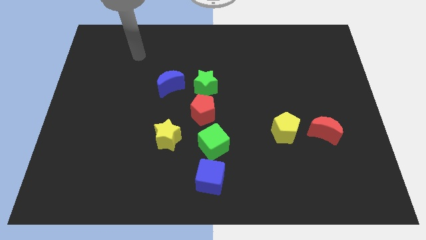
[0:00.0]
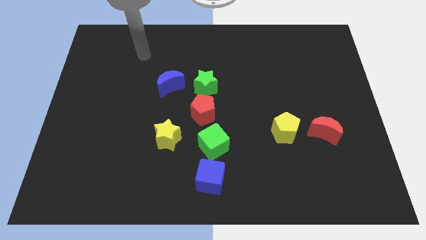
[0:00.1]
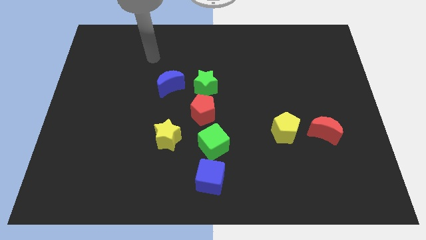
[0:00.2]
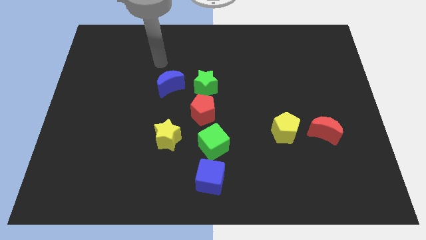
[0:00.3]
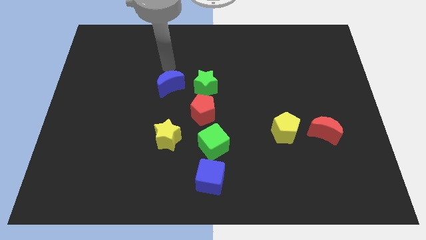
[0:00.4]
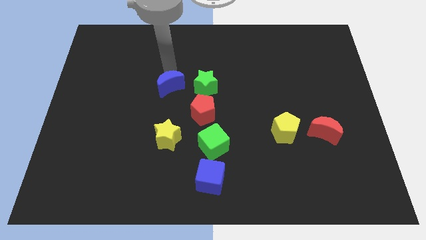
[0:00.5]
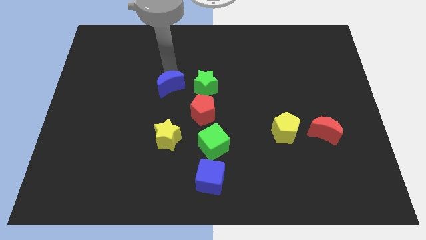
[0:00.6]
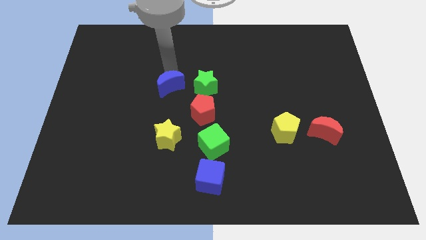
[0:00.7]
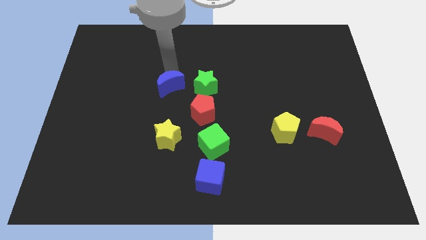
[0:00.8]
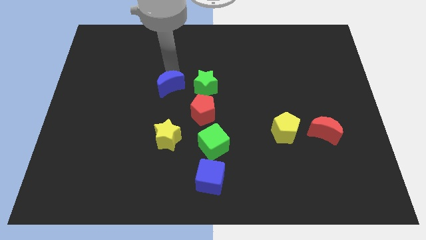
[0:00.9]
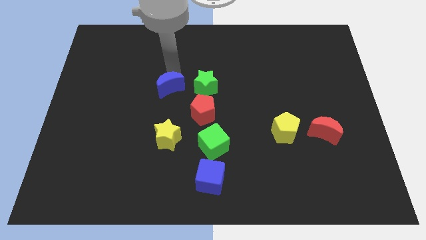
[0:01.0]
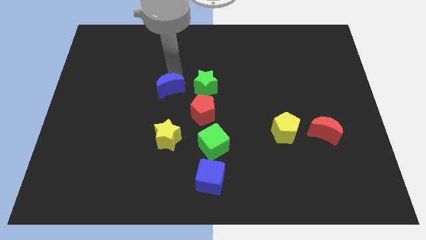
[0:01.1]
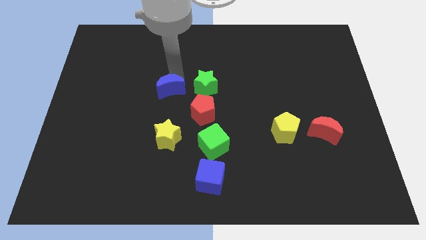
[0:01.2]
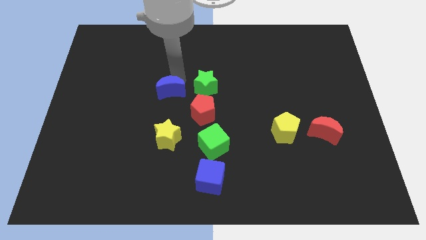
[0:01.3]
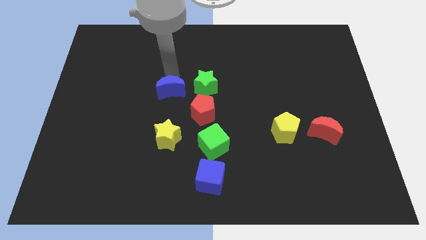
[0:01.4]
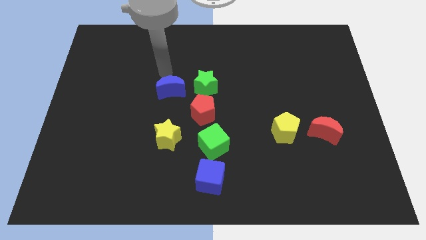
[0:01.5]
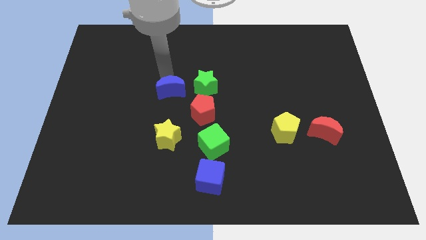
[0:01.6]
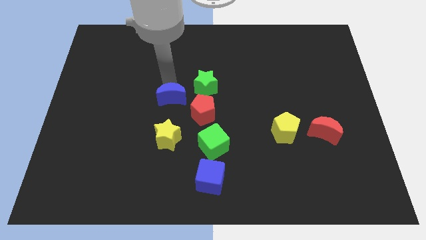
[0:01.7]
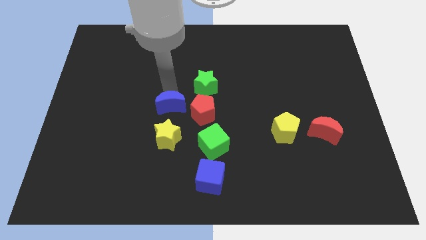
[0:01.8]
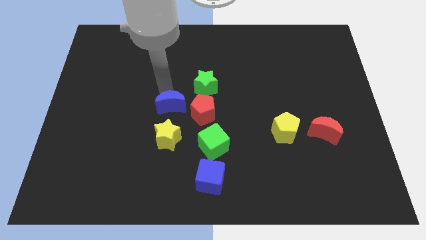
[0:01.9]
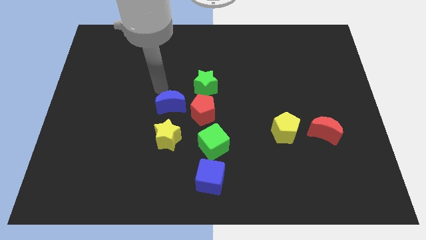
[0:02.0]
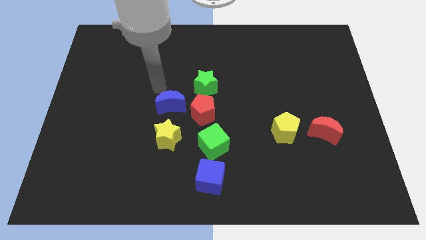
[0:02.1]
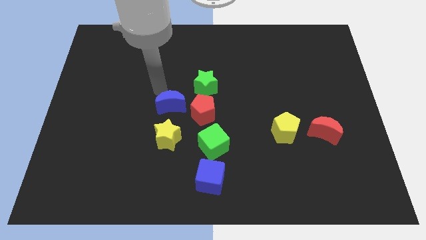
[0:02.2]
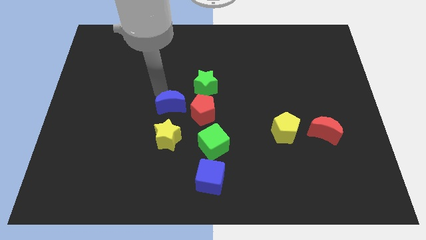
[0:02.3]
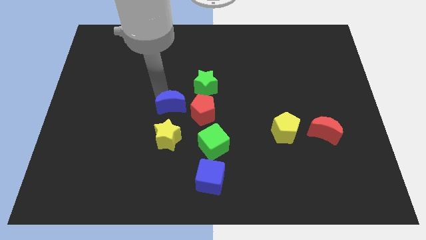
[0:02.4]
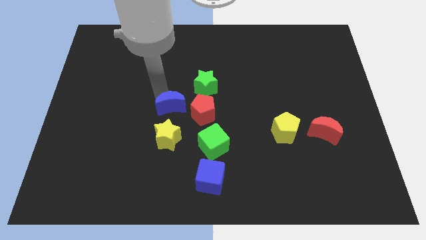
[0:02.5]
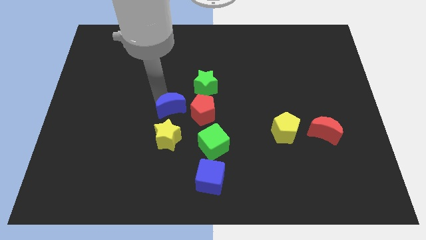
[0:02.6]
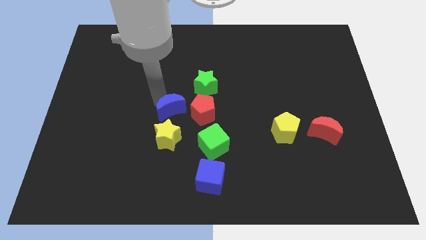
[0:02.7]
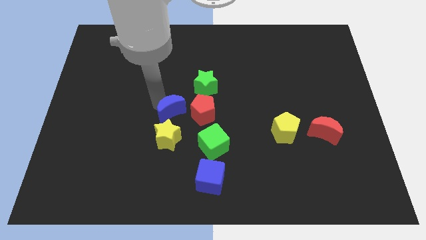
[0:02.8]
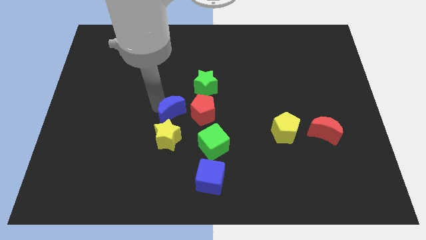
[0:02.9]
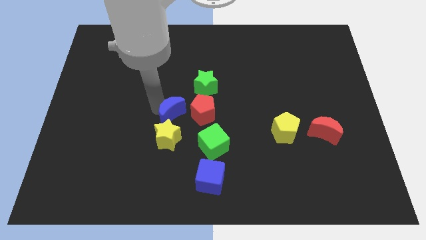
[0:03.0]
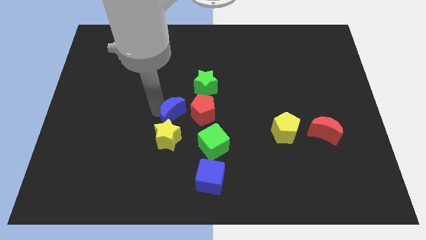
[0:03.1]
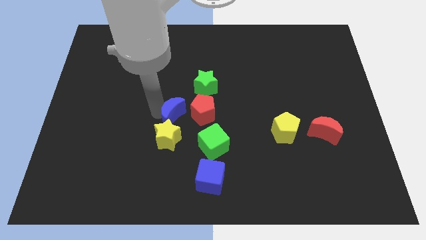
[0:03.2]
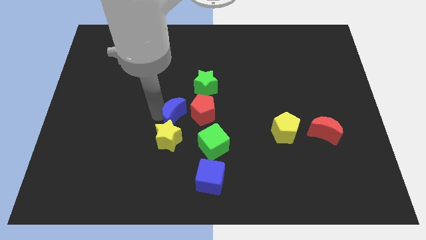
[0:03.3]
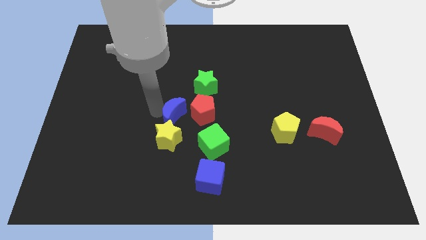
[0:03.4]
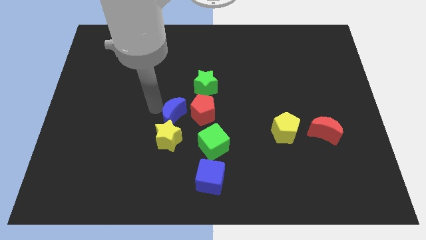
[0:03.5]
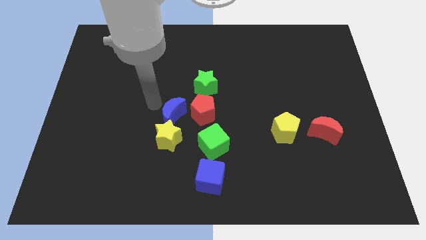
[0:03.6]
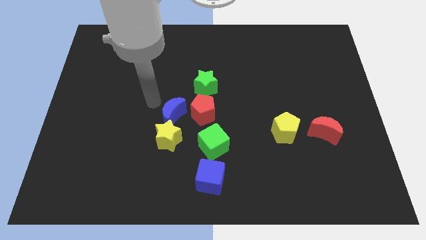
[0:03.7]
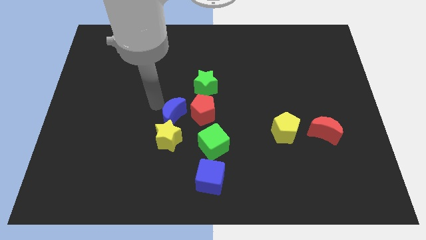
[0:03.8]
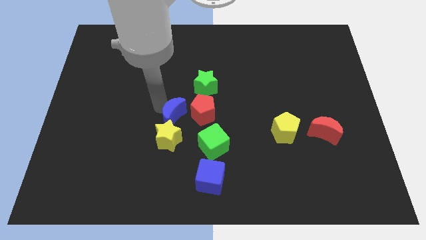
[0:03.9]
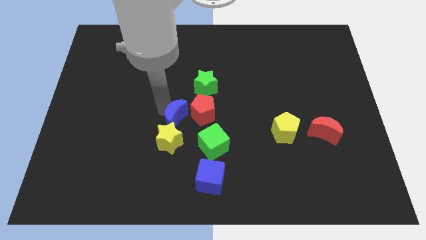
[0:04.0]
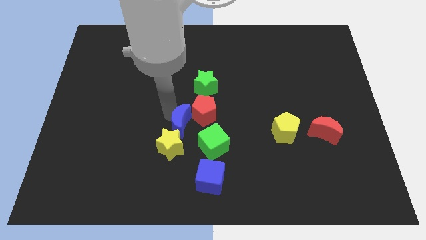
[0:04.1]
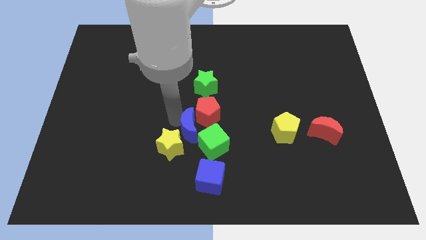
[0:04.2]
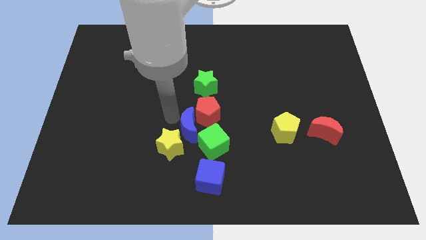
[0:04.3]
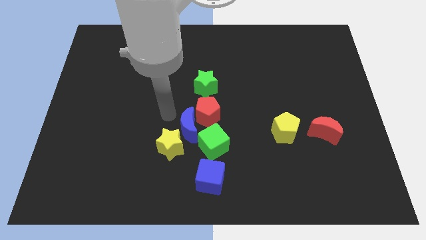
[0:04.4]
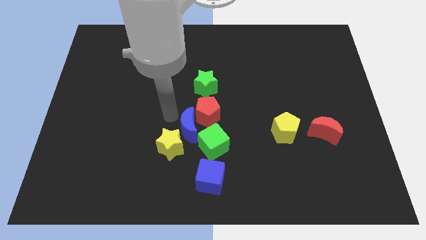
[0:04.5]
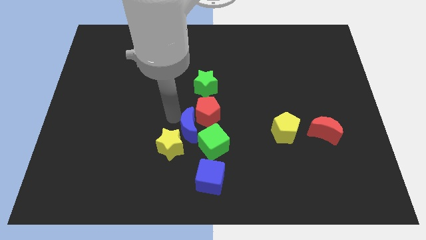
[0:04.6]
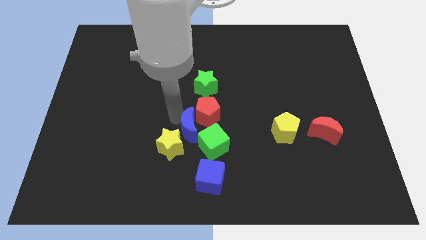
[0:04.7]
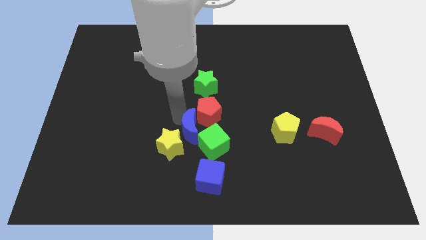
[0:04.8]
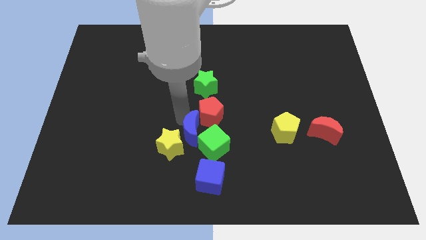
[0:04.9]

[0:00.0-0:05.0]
put the blue moon next to the green cube

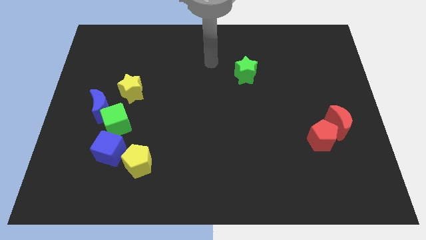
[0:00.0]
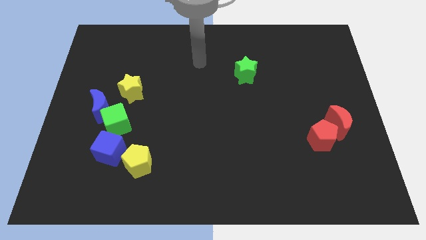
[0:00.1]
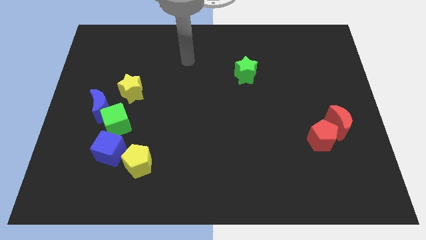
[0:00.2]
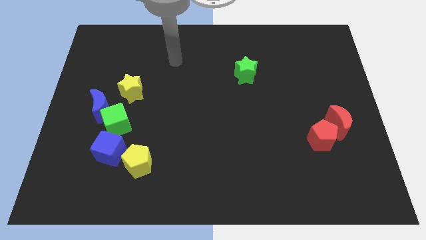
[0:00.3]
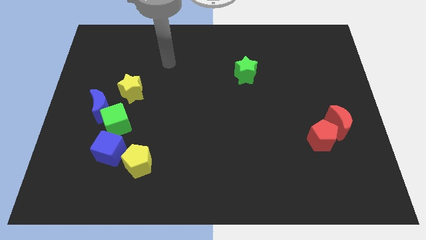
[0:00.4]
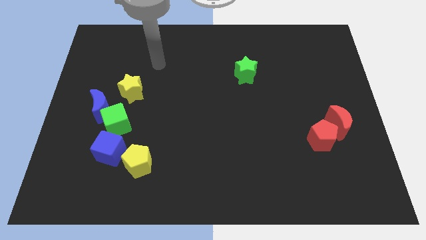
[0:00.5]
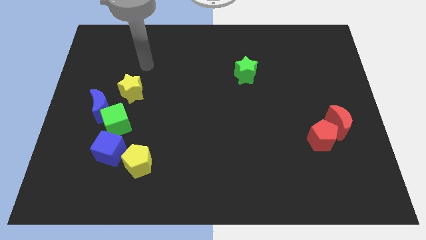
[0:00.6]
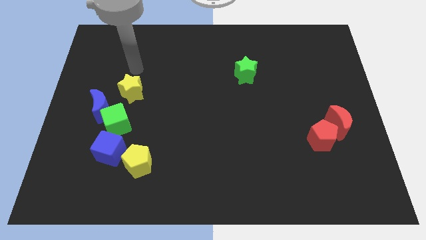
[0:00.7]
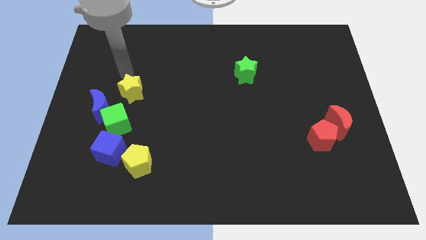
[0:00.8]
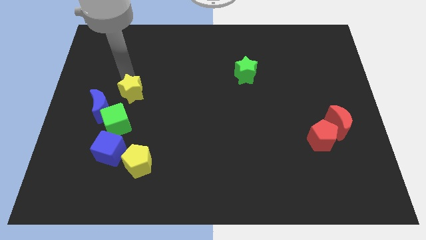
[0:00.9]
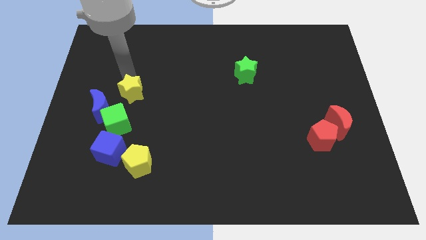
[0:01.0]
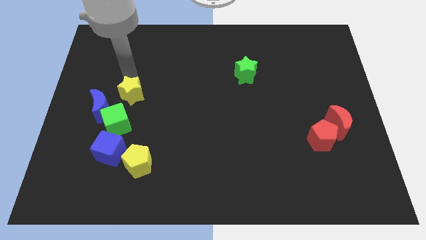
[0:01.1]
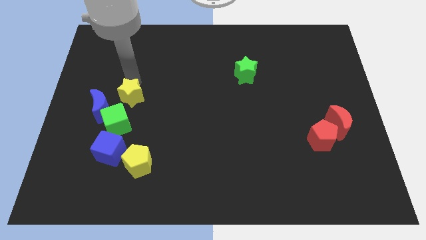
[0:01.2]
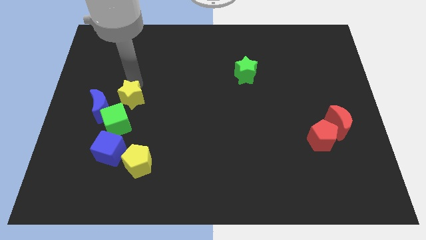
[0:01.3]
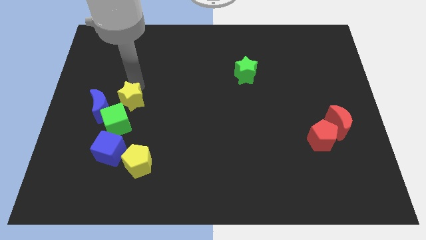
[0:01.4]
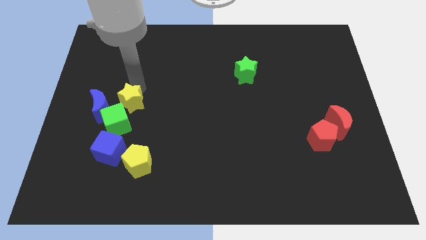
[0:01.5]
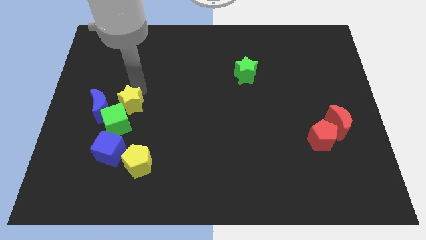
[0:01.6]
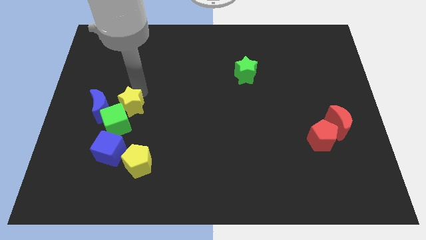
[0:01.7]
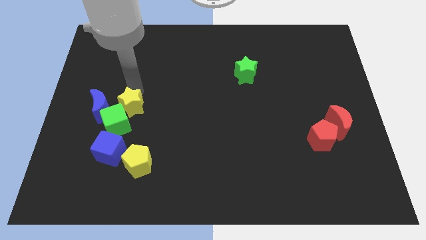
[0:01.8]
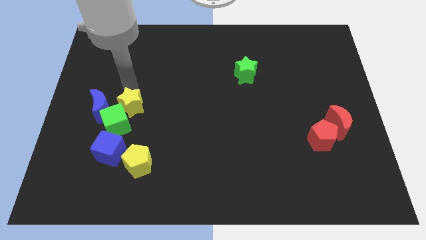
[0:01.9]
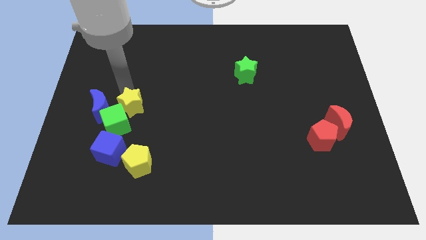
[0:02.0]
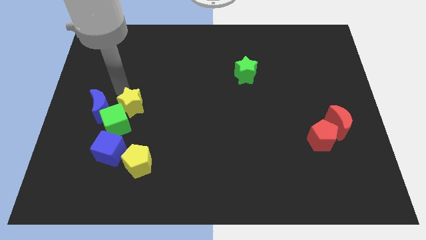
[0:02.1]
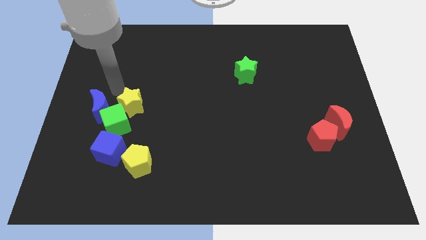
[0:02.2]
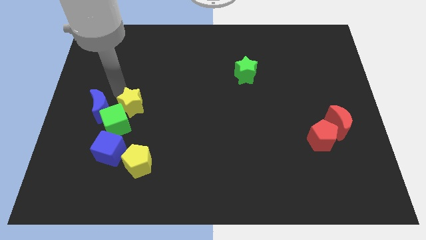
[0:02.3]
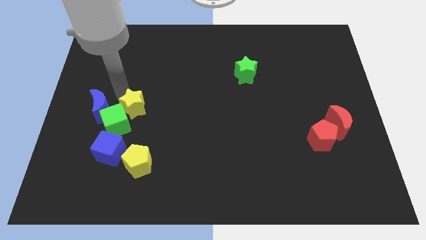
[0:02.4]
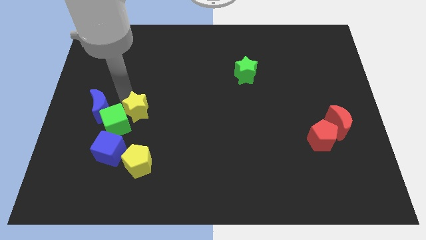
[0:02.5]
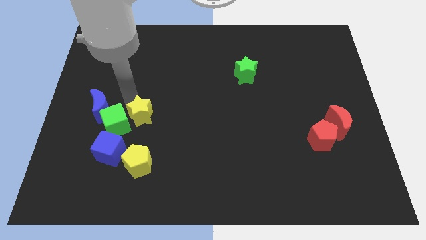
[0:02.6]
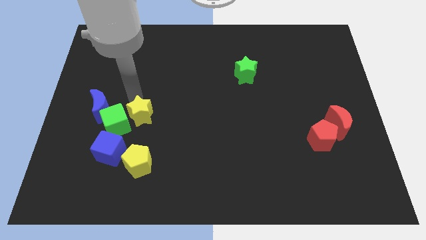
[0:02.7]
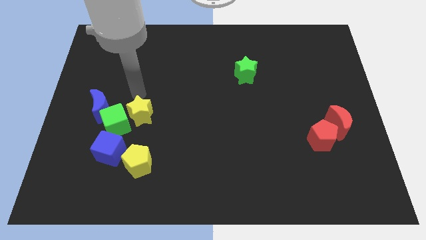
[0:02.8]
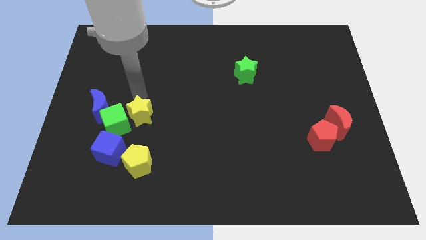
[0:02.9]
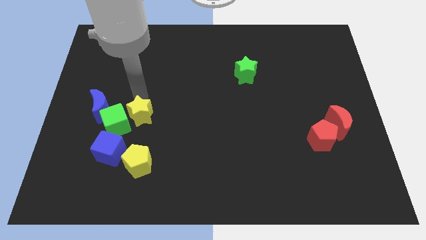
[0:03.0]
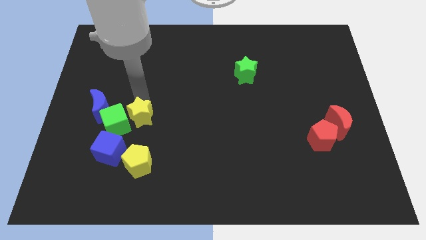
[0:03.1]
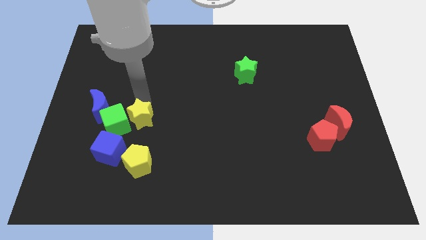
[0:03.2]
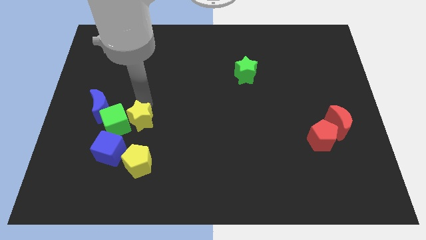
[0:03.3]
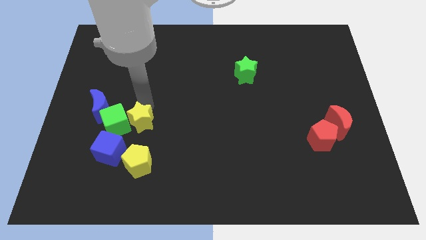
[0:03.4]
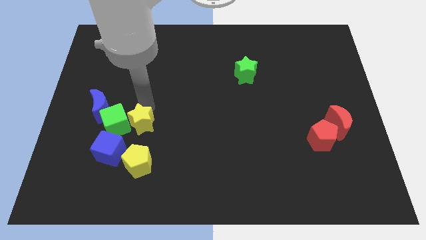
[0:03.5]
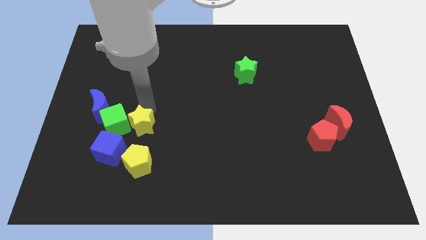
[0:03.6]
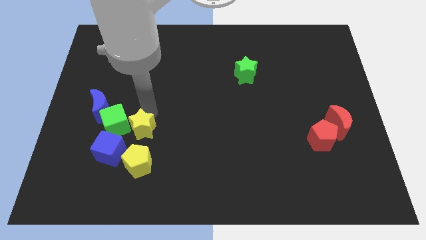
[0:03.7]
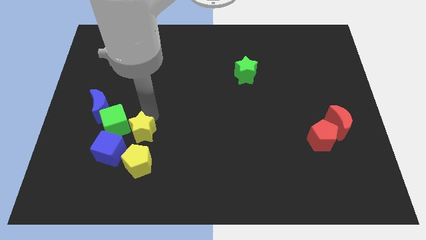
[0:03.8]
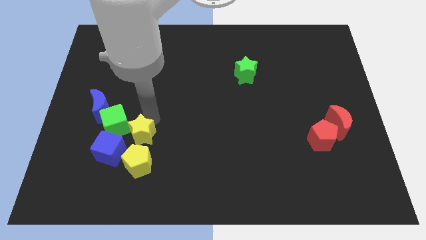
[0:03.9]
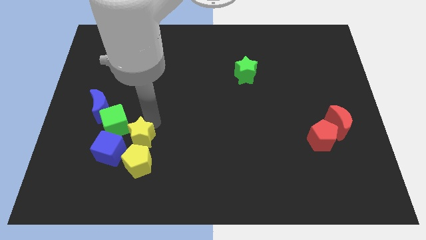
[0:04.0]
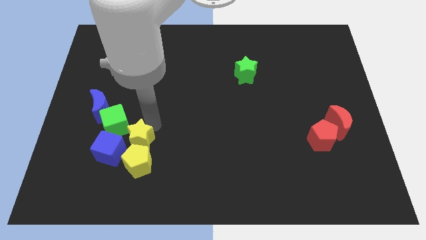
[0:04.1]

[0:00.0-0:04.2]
move the yellow star next to the yellow pentagon
